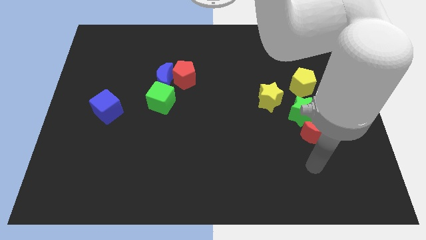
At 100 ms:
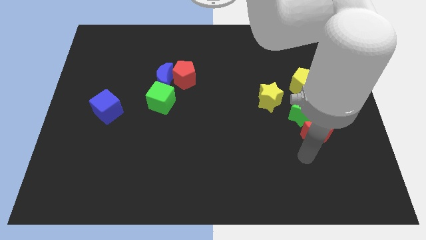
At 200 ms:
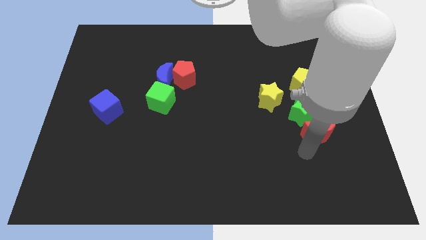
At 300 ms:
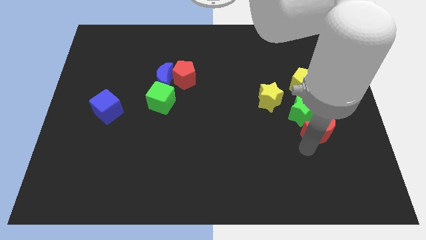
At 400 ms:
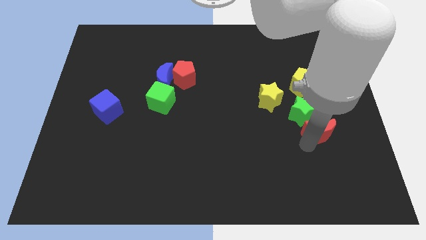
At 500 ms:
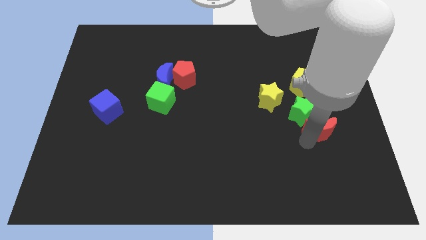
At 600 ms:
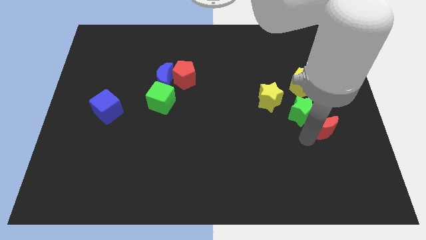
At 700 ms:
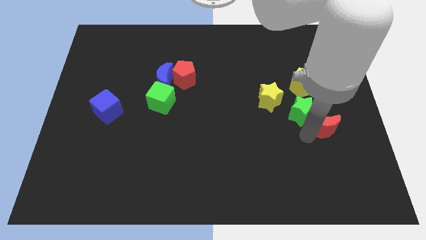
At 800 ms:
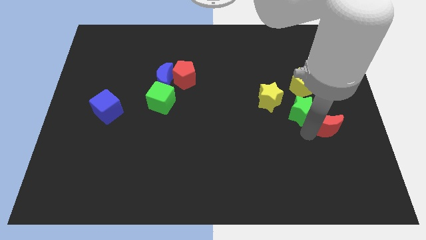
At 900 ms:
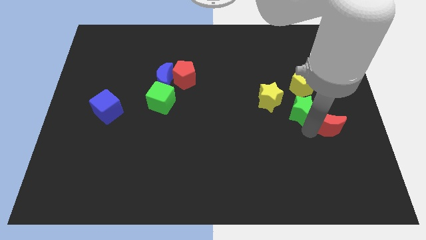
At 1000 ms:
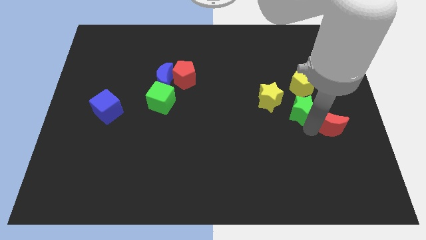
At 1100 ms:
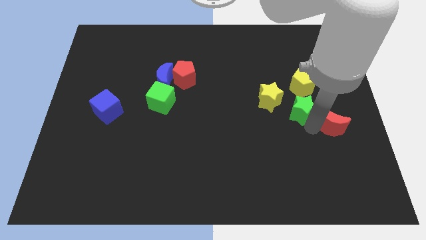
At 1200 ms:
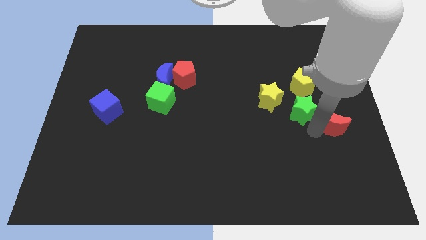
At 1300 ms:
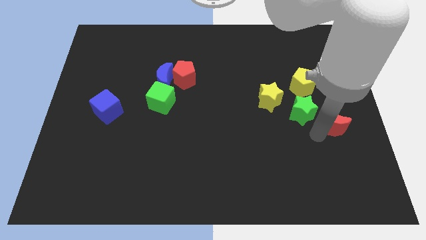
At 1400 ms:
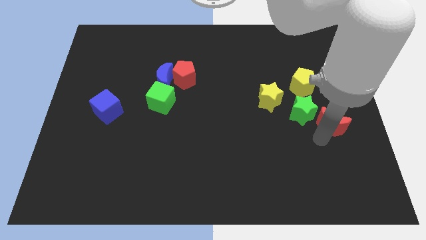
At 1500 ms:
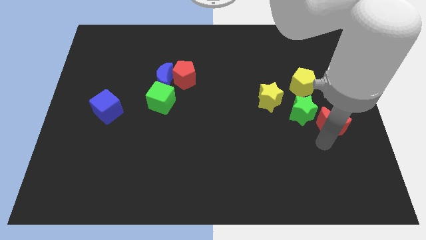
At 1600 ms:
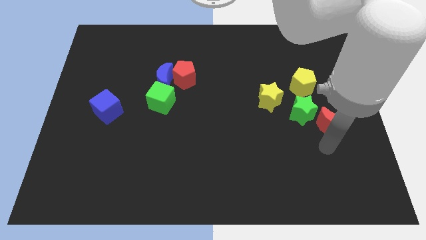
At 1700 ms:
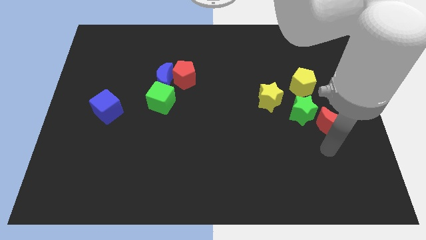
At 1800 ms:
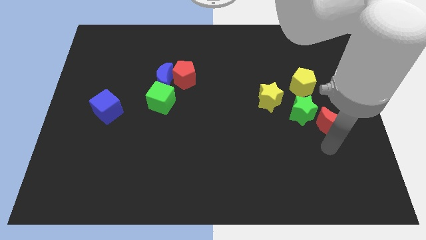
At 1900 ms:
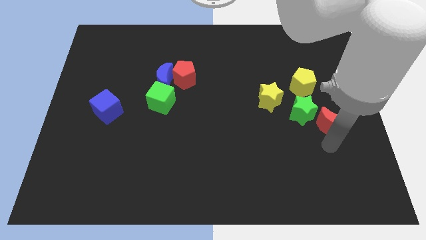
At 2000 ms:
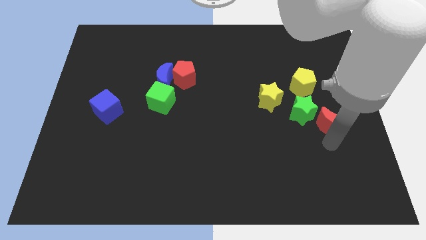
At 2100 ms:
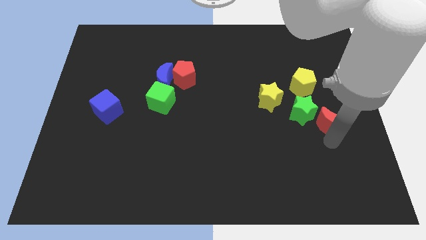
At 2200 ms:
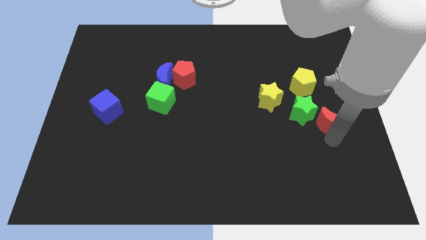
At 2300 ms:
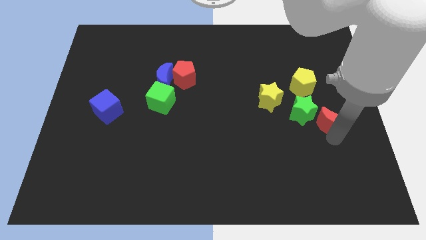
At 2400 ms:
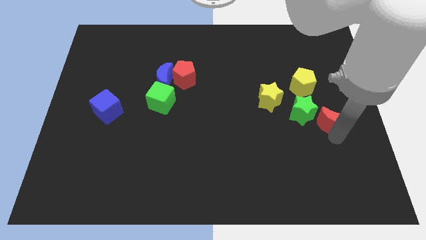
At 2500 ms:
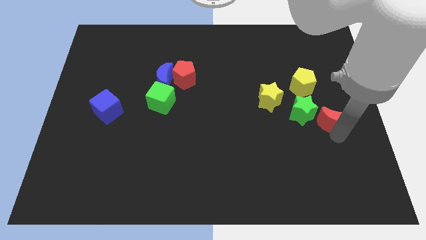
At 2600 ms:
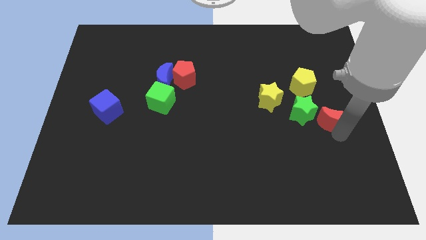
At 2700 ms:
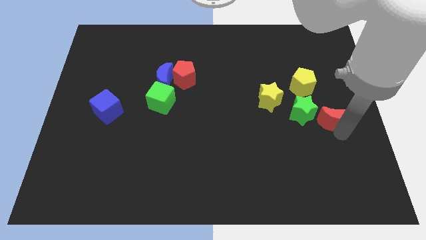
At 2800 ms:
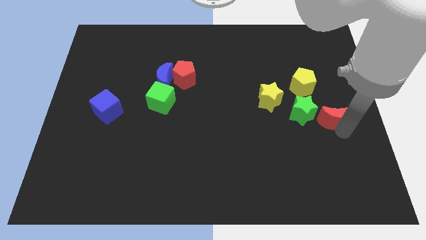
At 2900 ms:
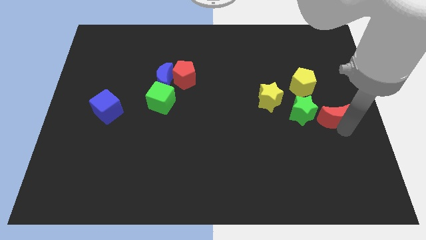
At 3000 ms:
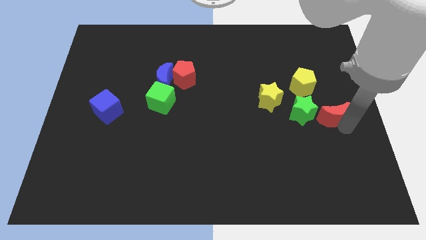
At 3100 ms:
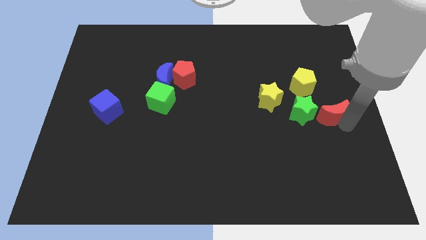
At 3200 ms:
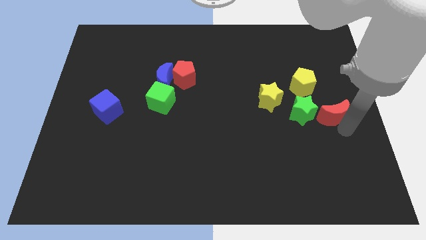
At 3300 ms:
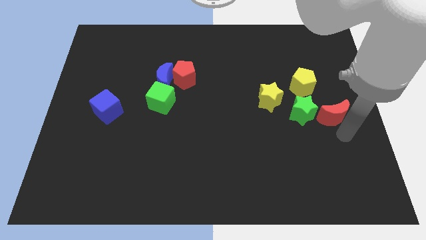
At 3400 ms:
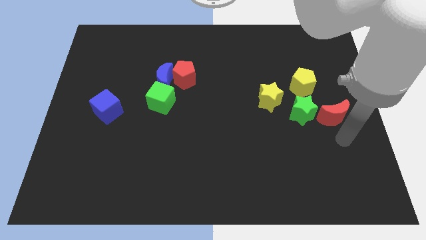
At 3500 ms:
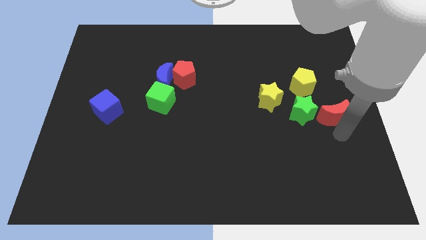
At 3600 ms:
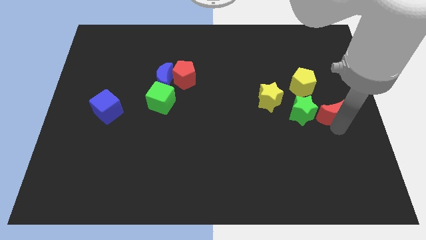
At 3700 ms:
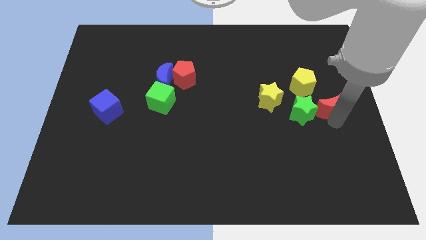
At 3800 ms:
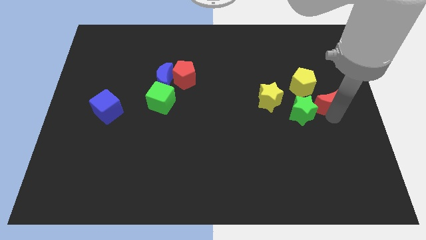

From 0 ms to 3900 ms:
slightly slide the red moon upwards

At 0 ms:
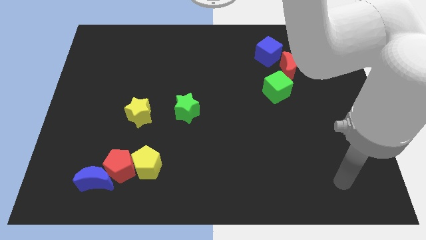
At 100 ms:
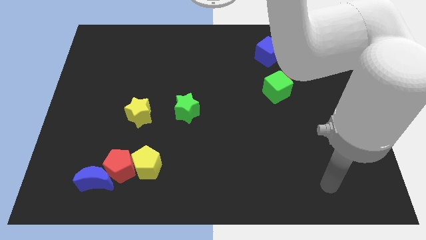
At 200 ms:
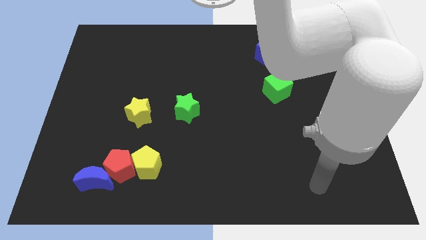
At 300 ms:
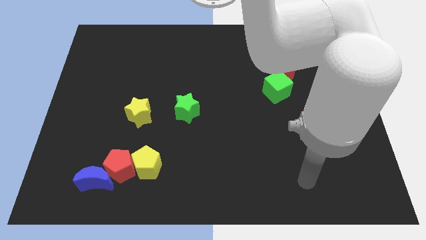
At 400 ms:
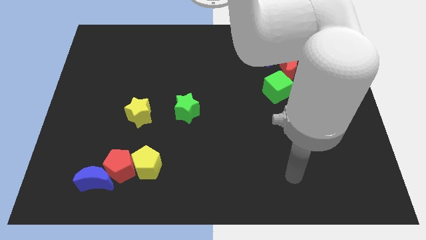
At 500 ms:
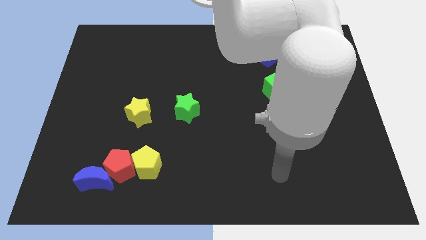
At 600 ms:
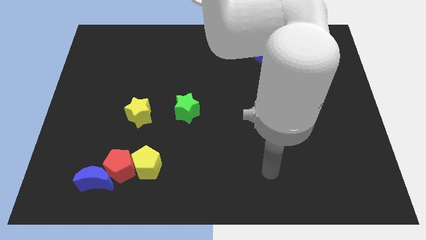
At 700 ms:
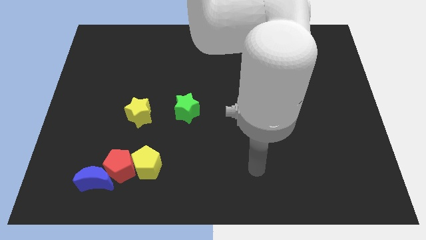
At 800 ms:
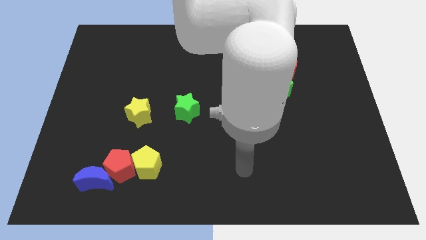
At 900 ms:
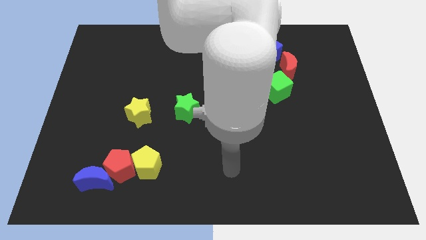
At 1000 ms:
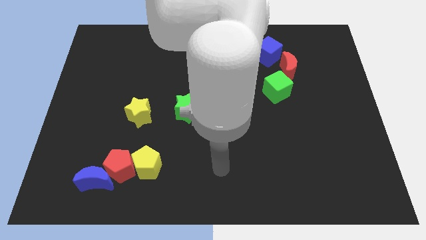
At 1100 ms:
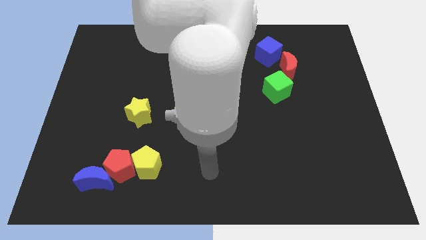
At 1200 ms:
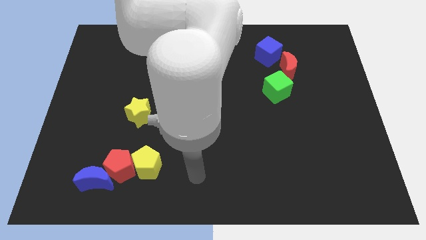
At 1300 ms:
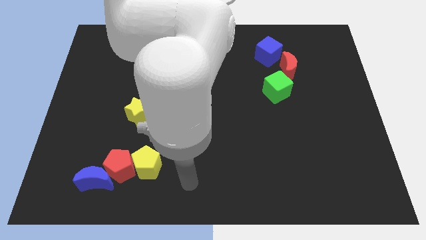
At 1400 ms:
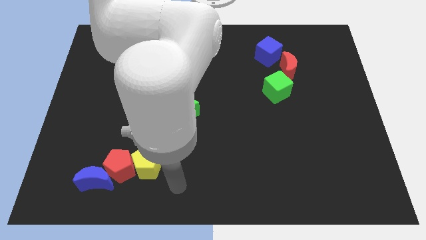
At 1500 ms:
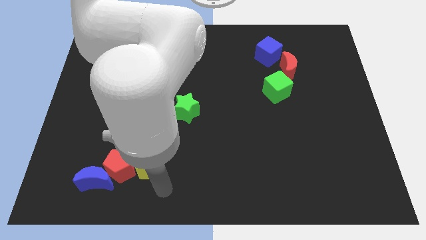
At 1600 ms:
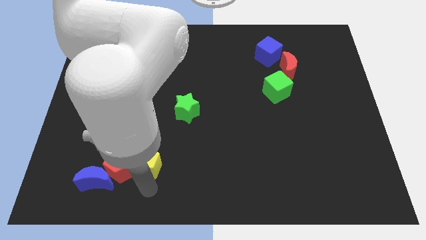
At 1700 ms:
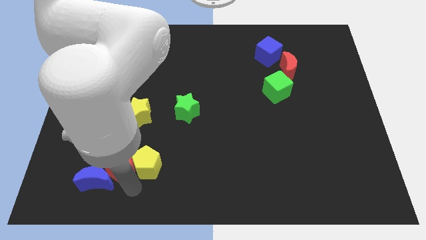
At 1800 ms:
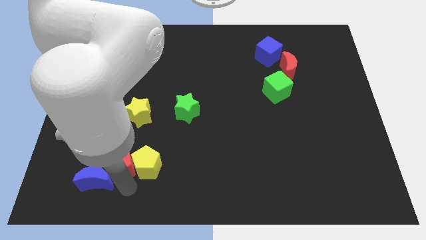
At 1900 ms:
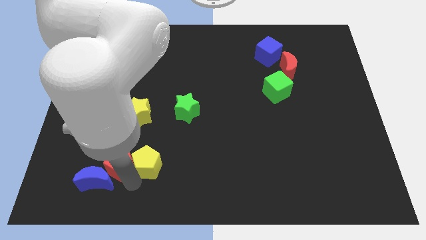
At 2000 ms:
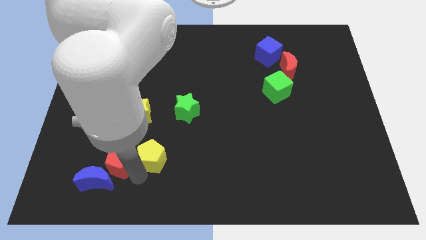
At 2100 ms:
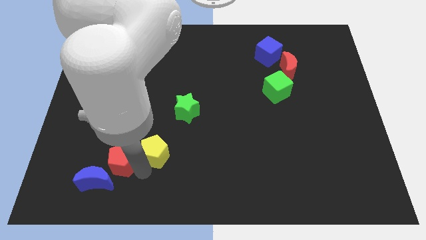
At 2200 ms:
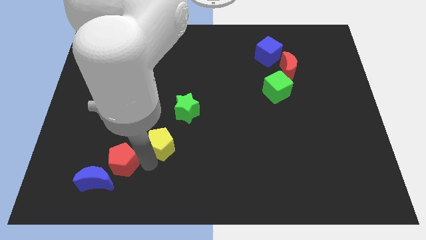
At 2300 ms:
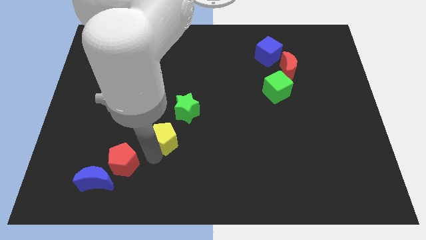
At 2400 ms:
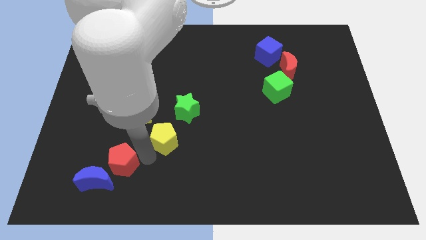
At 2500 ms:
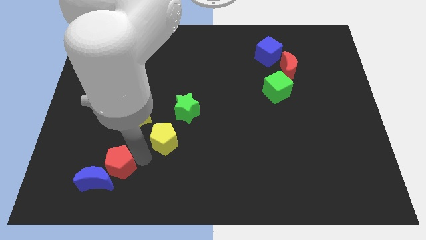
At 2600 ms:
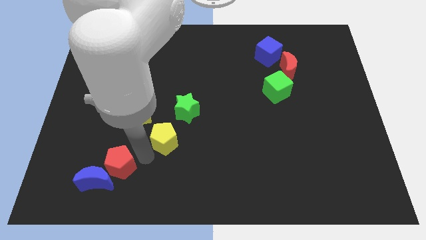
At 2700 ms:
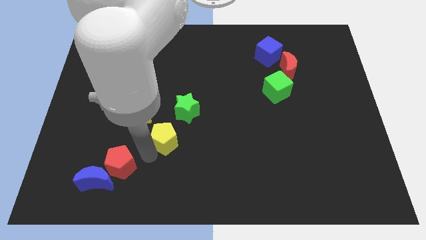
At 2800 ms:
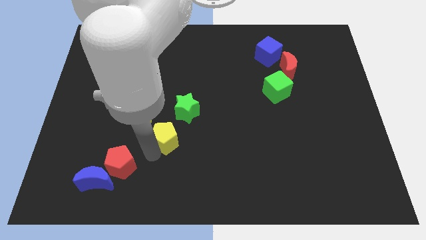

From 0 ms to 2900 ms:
move the yellow pentagon somewhat upwards and to the right

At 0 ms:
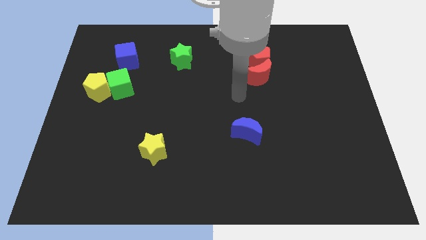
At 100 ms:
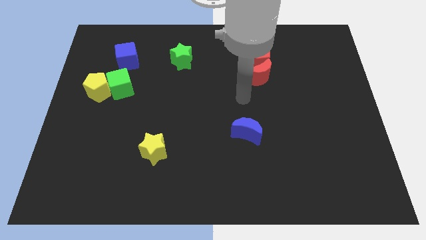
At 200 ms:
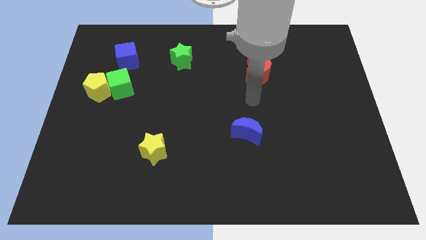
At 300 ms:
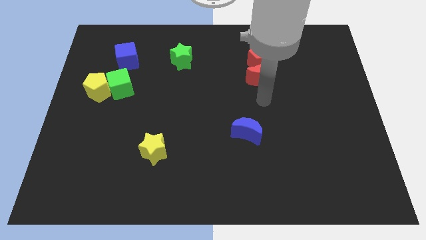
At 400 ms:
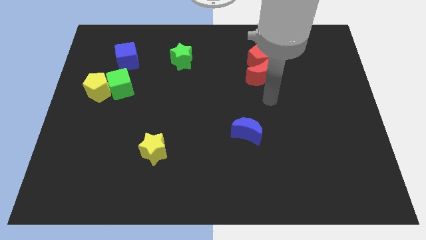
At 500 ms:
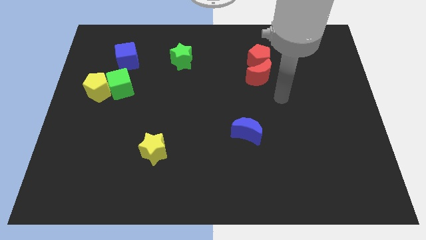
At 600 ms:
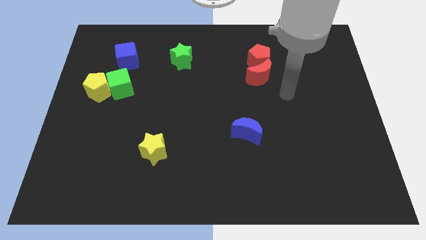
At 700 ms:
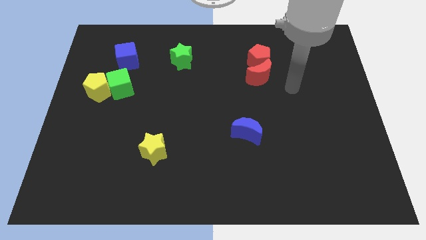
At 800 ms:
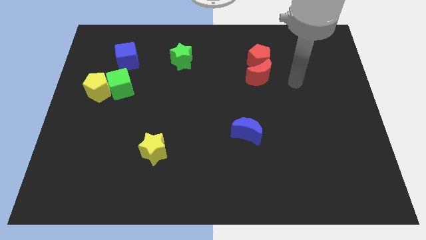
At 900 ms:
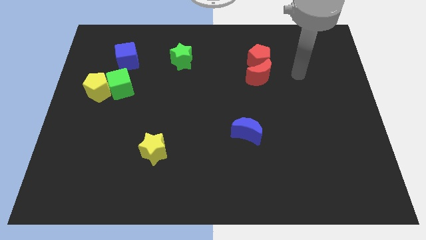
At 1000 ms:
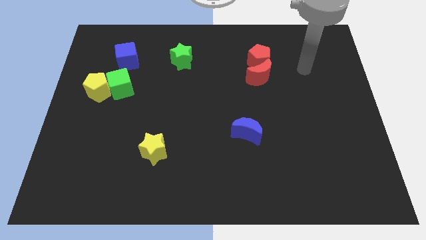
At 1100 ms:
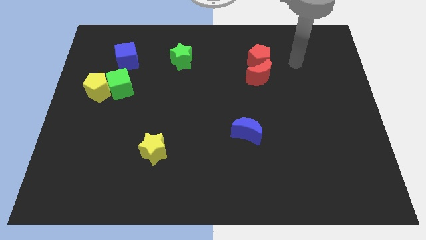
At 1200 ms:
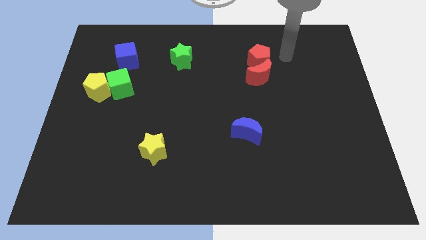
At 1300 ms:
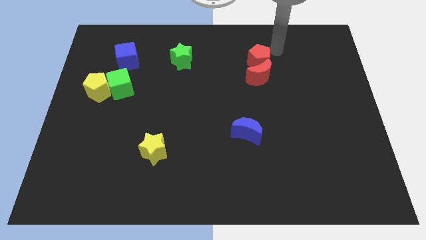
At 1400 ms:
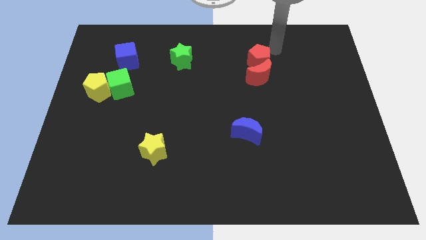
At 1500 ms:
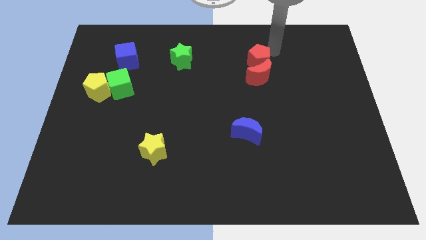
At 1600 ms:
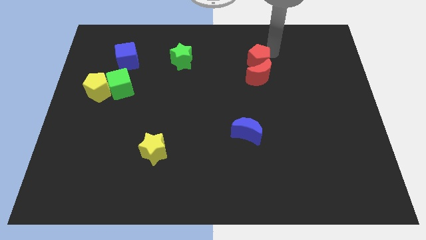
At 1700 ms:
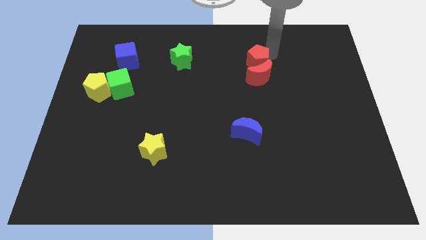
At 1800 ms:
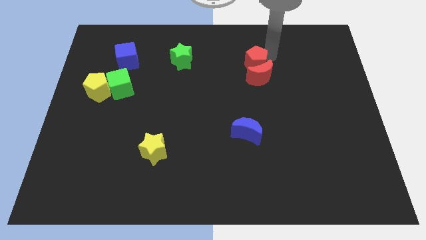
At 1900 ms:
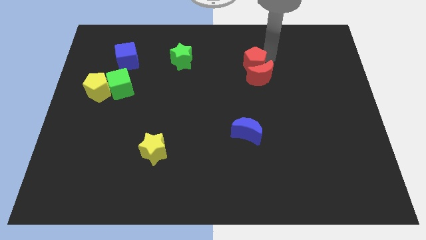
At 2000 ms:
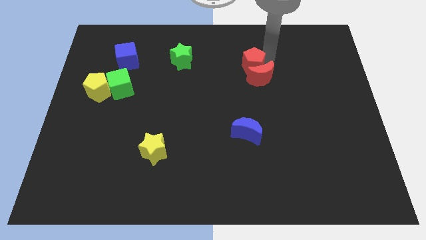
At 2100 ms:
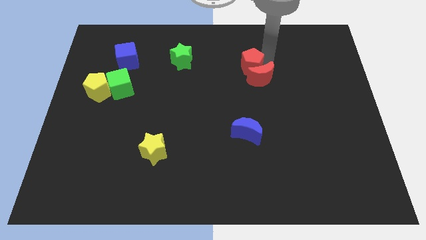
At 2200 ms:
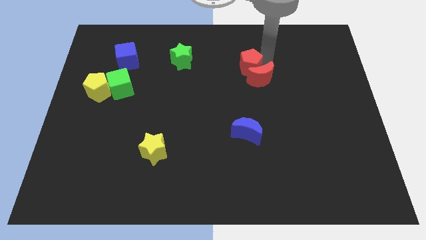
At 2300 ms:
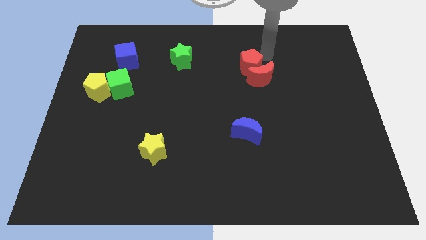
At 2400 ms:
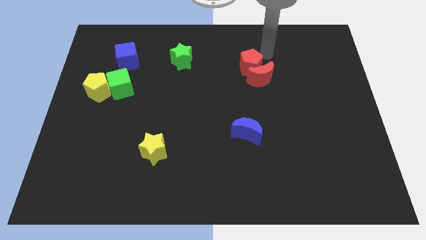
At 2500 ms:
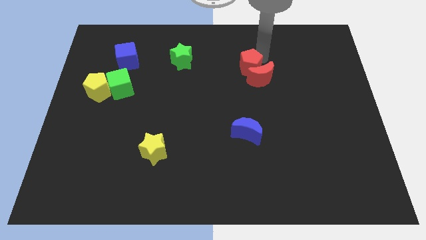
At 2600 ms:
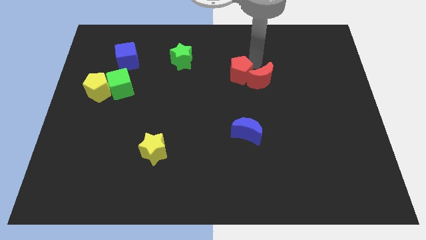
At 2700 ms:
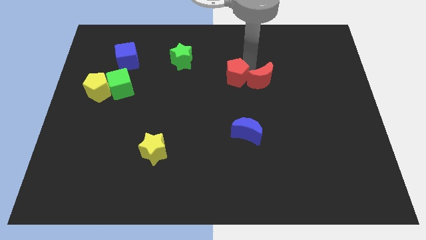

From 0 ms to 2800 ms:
slide the red pentagon down and then to the left slightly
